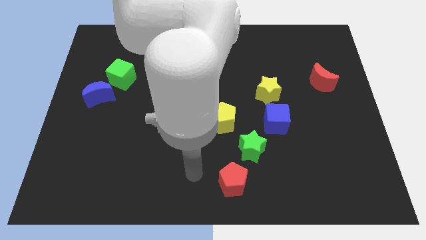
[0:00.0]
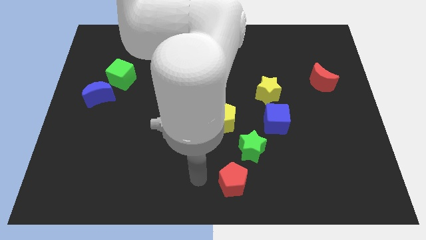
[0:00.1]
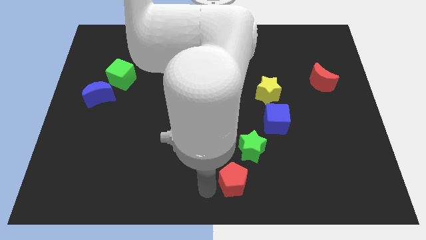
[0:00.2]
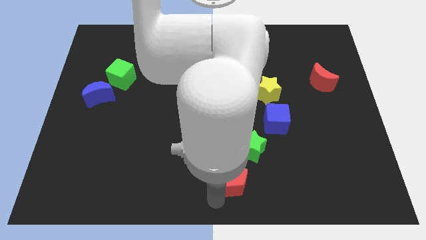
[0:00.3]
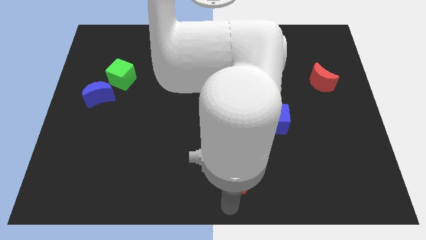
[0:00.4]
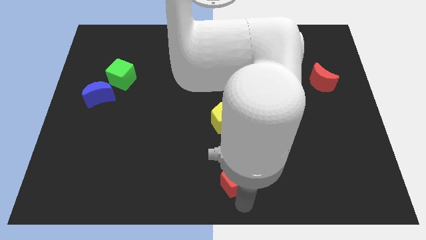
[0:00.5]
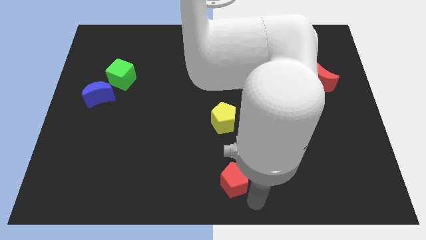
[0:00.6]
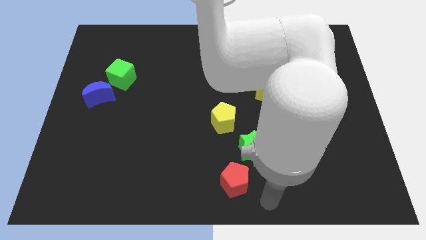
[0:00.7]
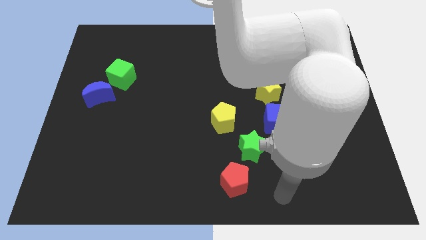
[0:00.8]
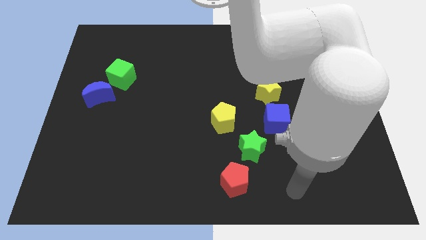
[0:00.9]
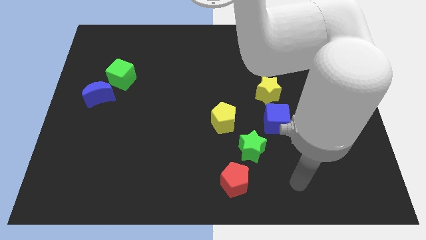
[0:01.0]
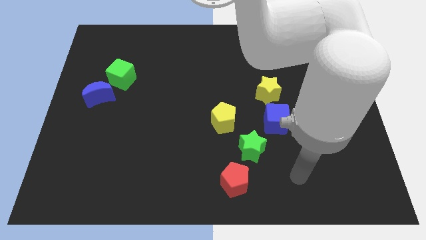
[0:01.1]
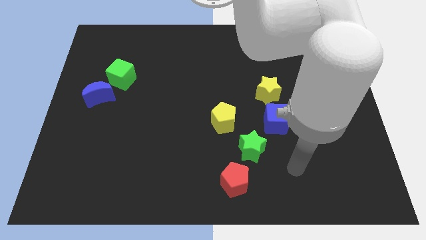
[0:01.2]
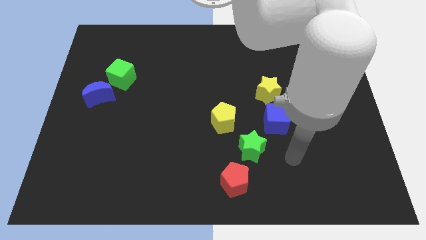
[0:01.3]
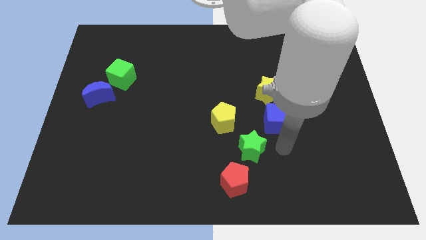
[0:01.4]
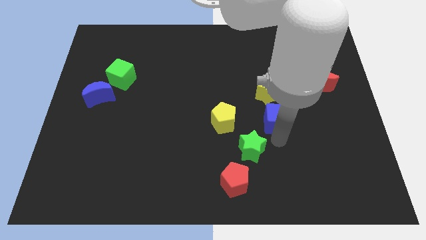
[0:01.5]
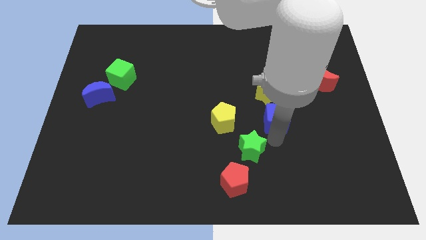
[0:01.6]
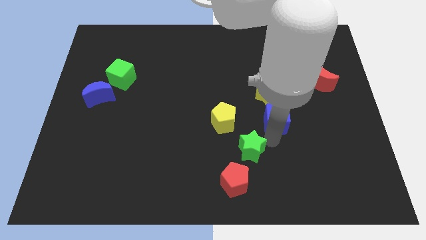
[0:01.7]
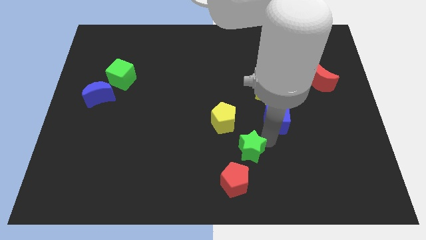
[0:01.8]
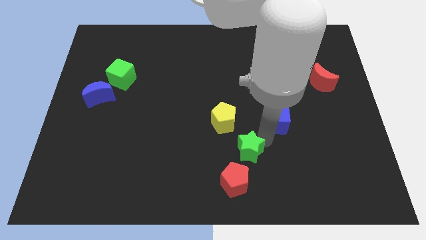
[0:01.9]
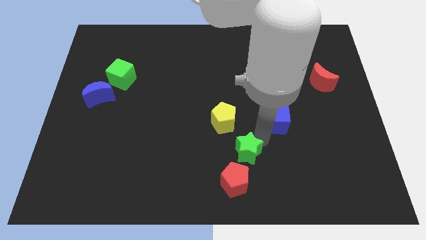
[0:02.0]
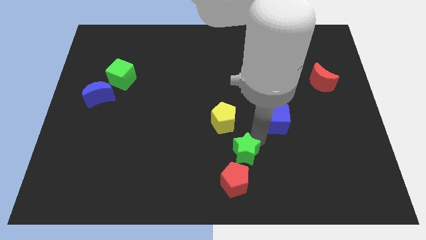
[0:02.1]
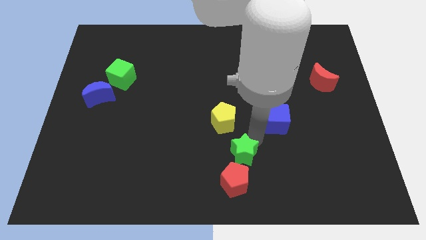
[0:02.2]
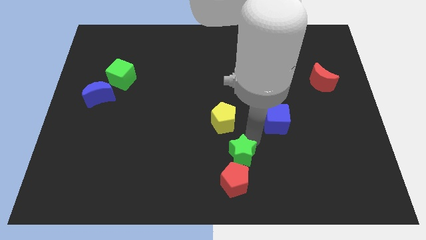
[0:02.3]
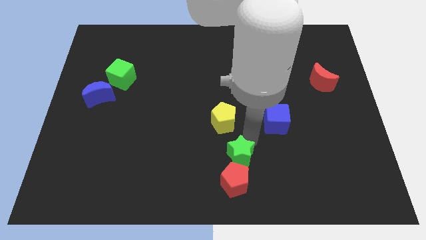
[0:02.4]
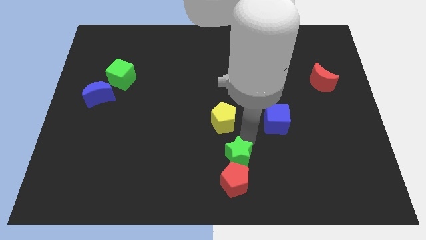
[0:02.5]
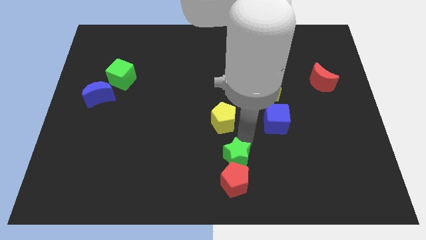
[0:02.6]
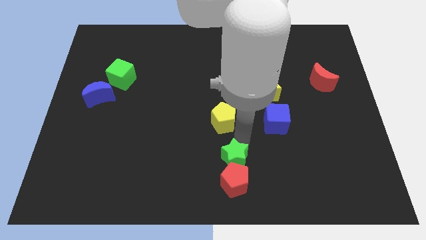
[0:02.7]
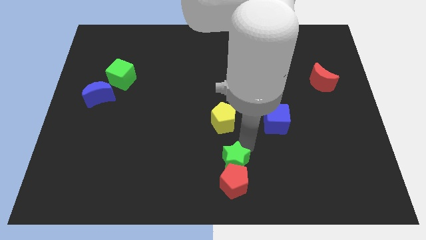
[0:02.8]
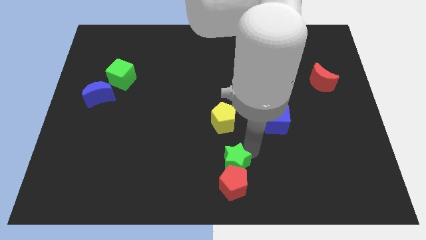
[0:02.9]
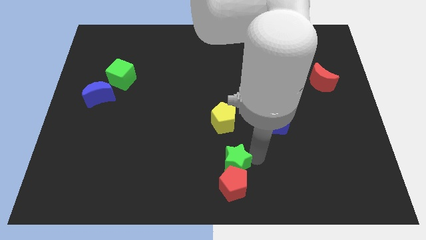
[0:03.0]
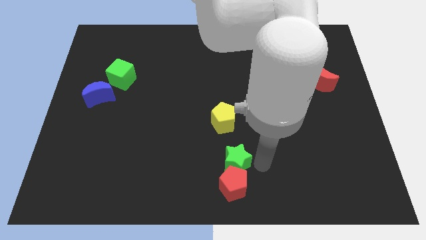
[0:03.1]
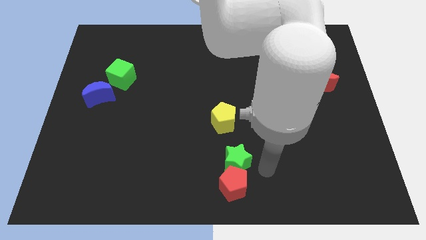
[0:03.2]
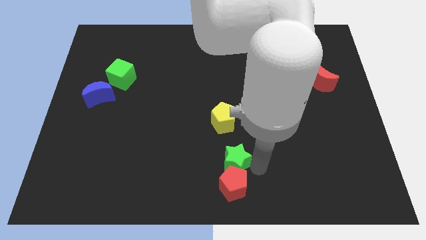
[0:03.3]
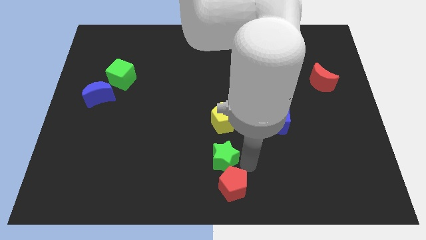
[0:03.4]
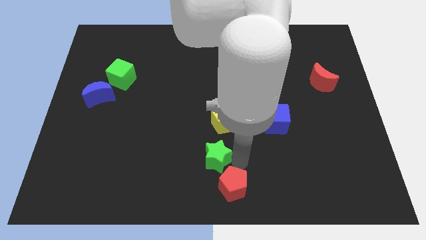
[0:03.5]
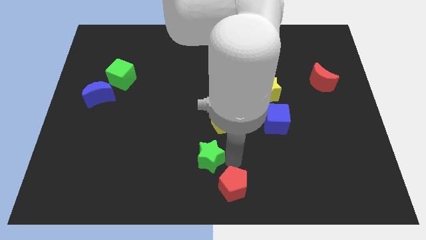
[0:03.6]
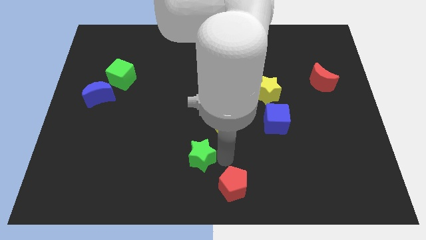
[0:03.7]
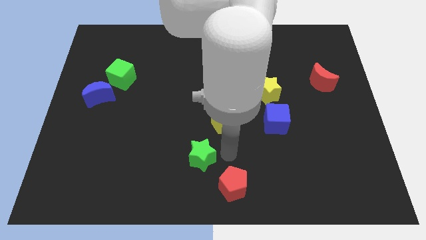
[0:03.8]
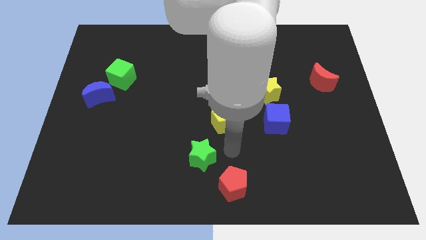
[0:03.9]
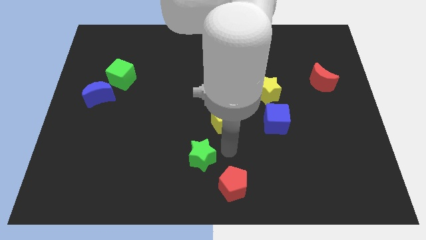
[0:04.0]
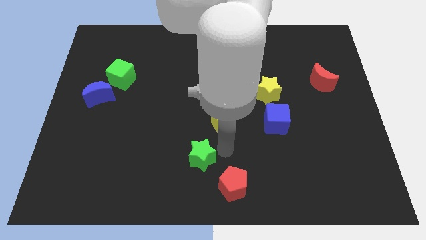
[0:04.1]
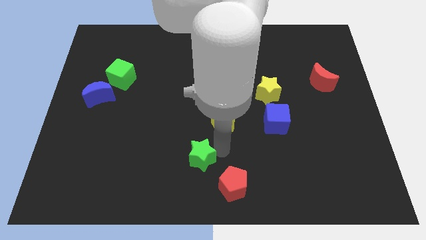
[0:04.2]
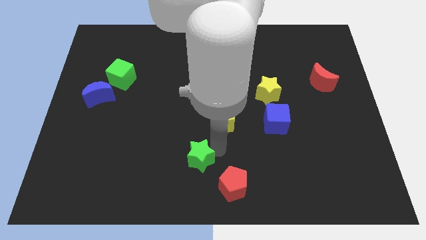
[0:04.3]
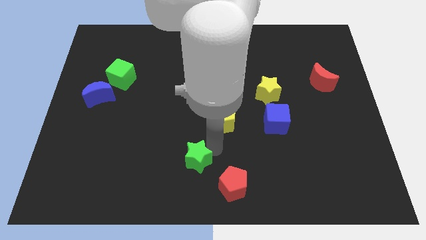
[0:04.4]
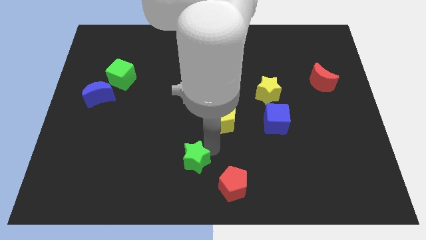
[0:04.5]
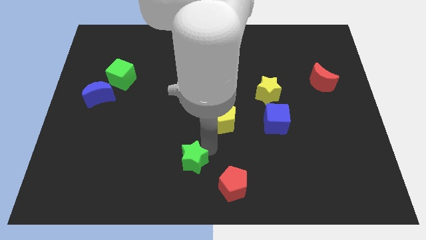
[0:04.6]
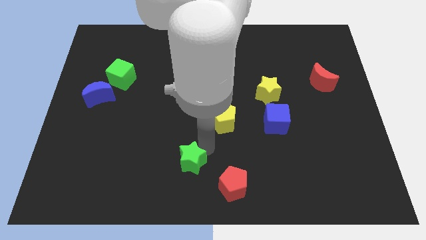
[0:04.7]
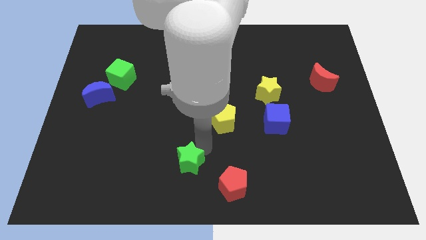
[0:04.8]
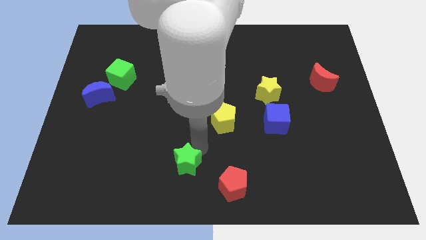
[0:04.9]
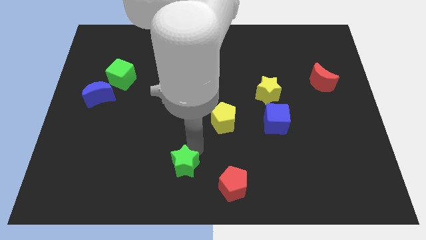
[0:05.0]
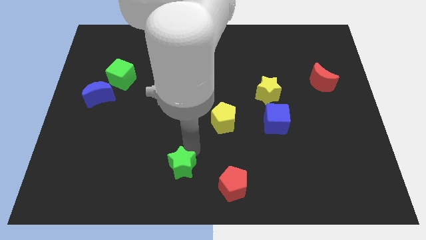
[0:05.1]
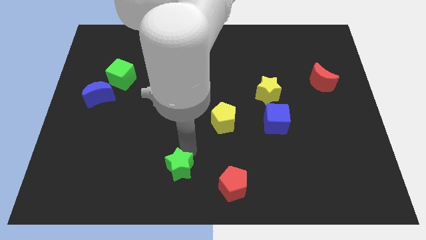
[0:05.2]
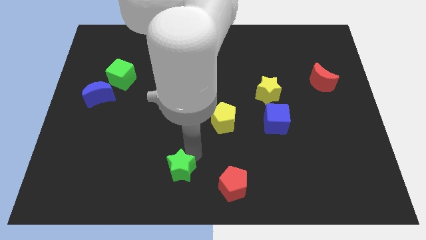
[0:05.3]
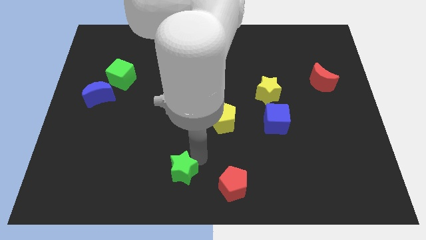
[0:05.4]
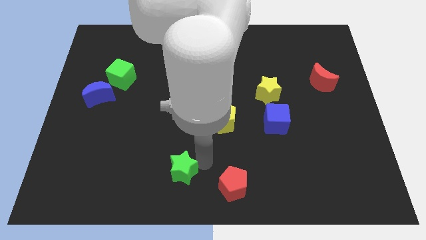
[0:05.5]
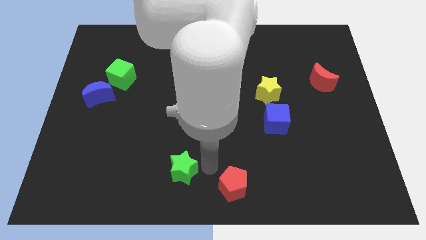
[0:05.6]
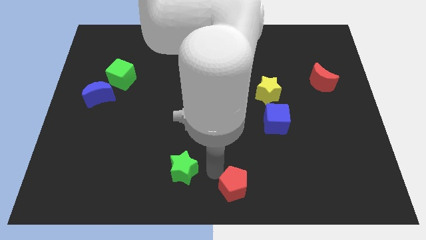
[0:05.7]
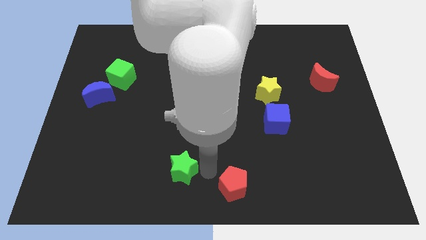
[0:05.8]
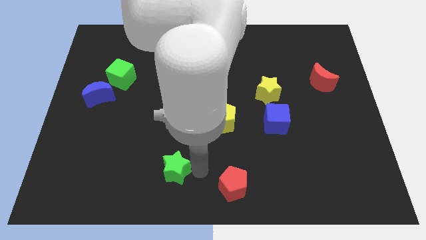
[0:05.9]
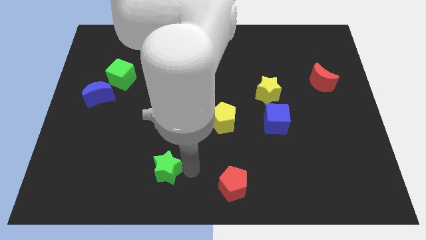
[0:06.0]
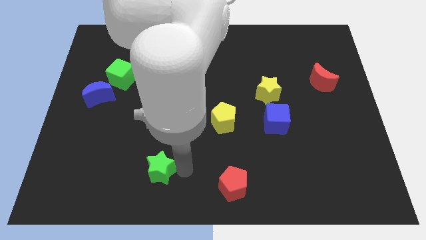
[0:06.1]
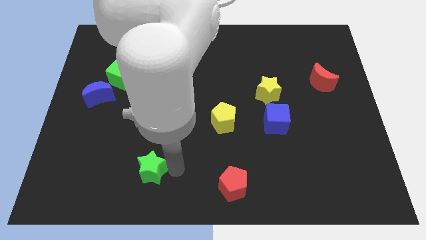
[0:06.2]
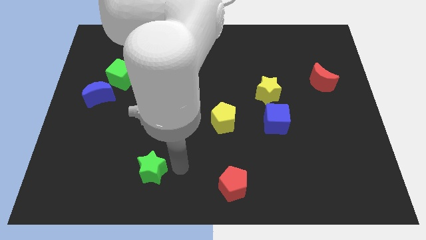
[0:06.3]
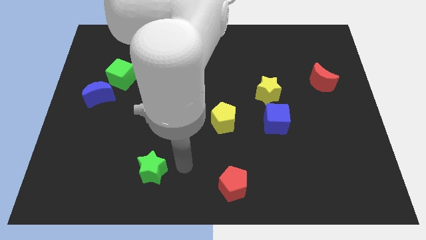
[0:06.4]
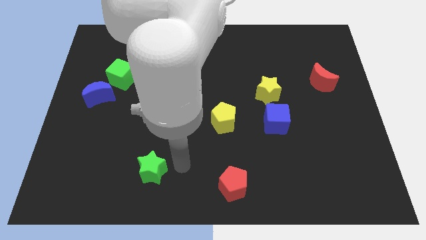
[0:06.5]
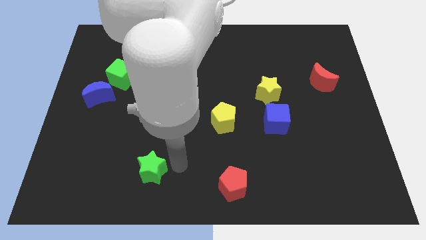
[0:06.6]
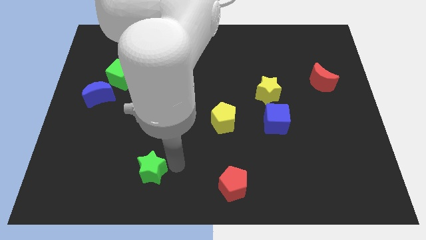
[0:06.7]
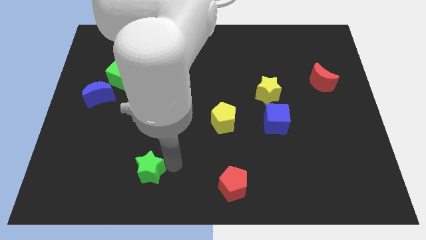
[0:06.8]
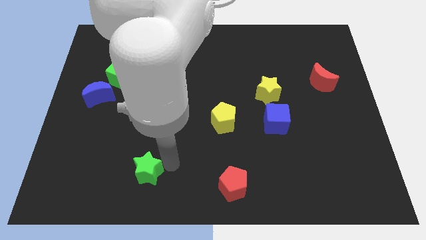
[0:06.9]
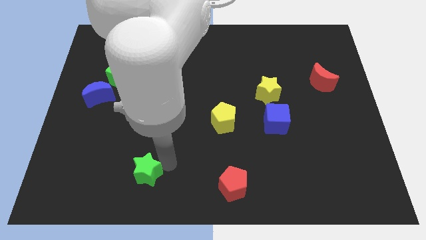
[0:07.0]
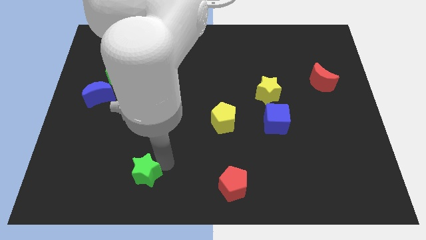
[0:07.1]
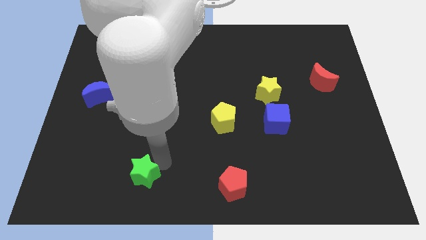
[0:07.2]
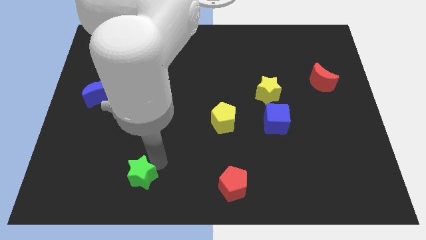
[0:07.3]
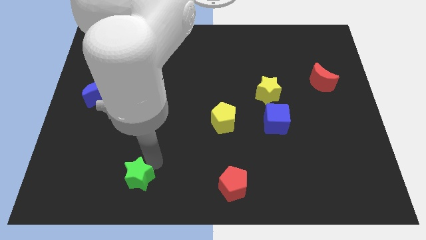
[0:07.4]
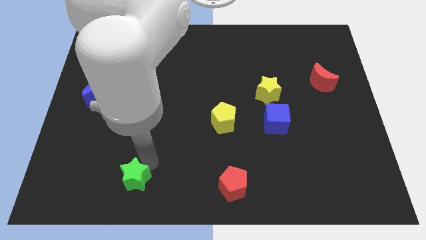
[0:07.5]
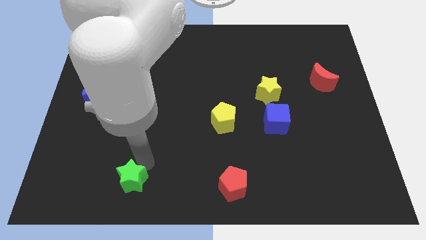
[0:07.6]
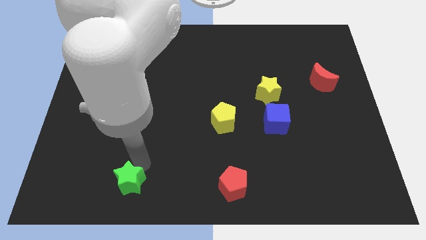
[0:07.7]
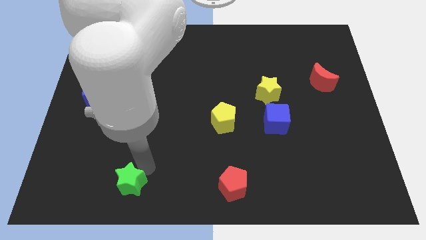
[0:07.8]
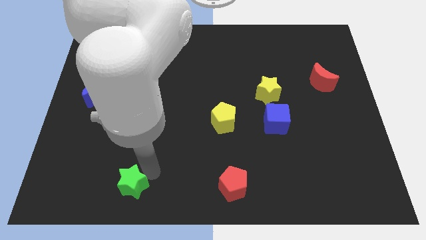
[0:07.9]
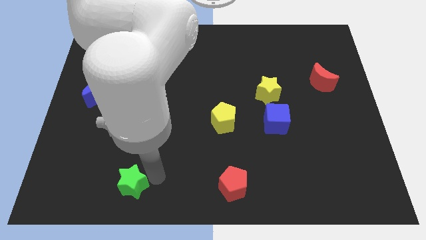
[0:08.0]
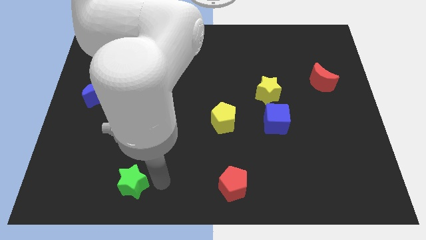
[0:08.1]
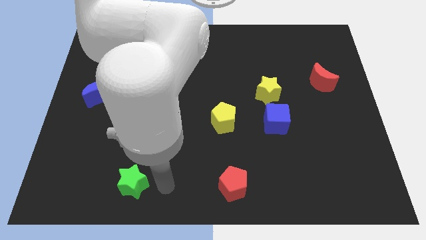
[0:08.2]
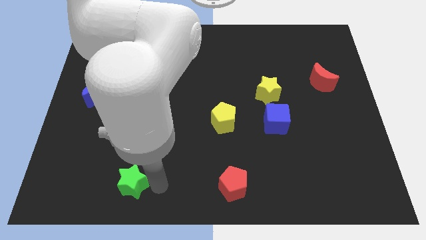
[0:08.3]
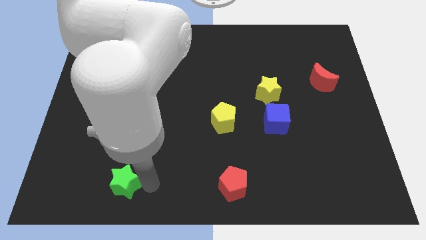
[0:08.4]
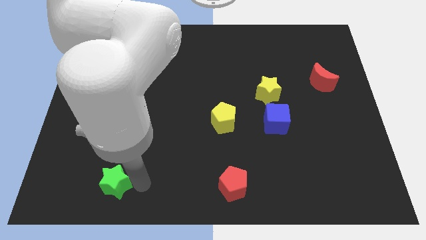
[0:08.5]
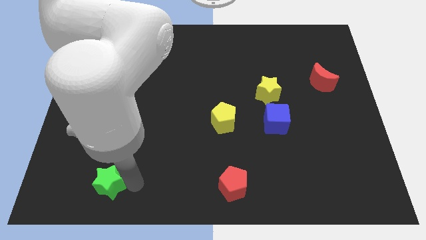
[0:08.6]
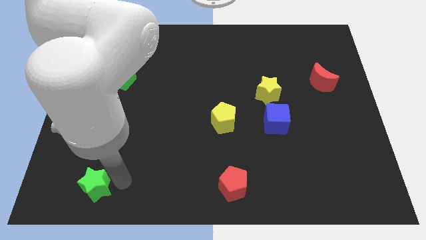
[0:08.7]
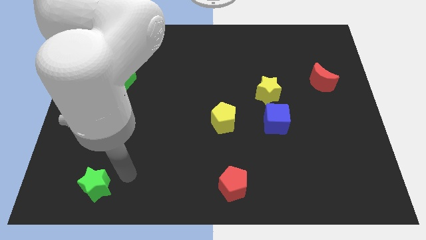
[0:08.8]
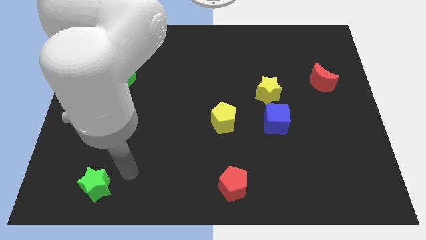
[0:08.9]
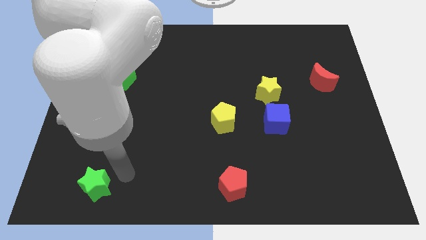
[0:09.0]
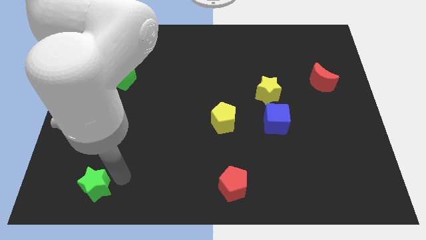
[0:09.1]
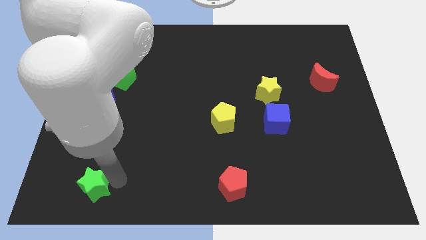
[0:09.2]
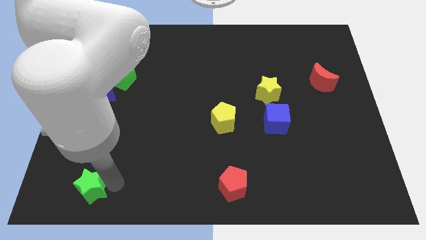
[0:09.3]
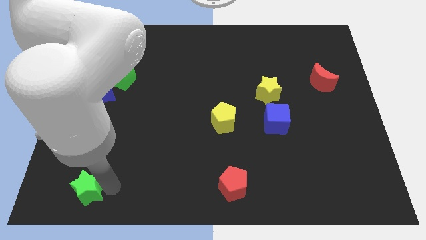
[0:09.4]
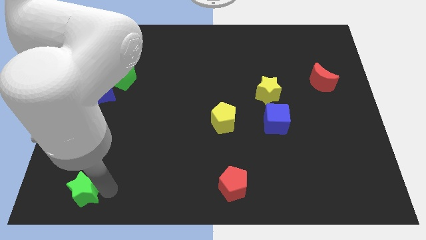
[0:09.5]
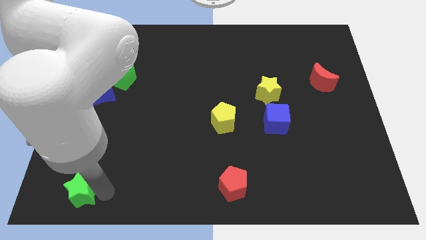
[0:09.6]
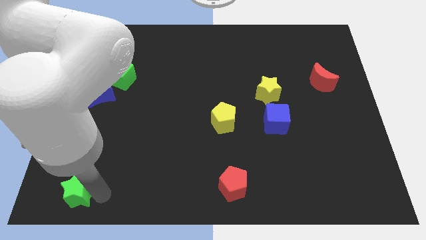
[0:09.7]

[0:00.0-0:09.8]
put the green star to the bottom left
